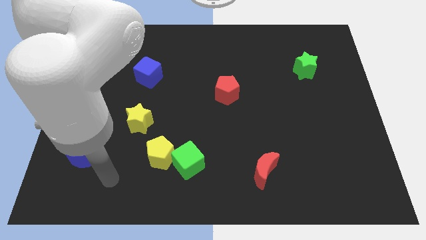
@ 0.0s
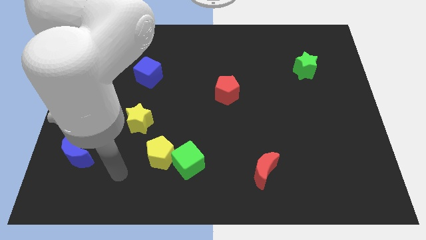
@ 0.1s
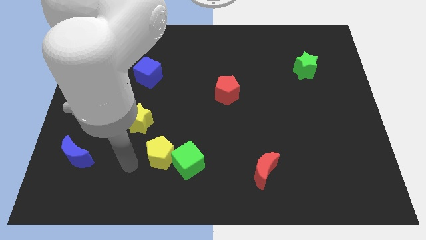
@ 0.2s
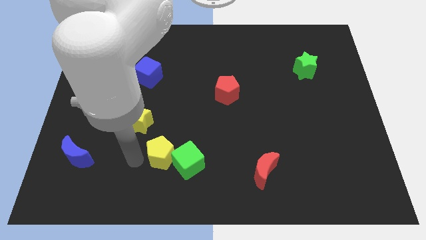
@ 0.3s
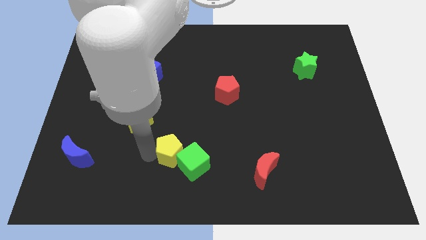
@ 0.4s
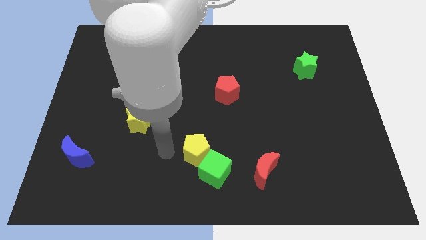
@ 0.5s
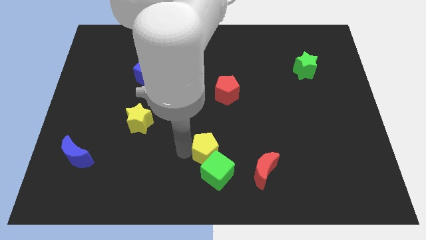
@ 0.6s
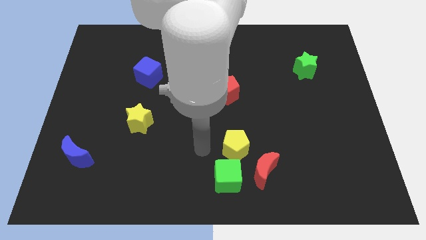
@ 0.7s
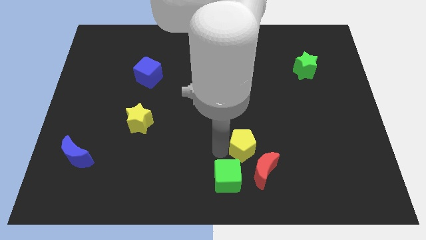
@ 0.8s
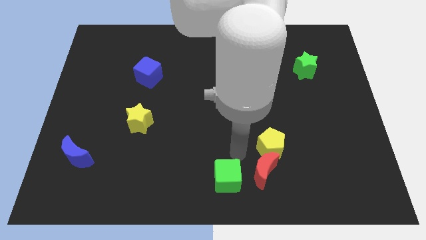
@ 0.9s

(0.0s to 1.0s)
pull the green cube apart from the yellow pentagon

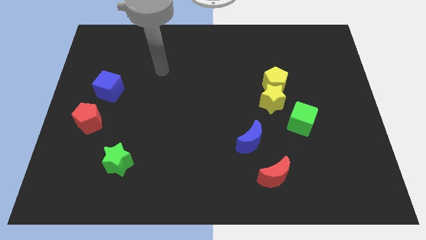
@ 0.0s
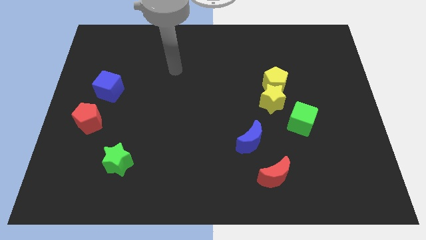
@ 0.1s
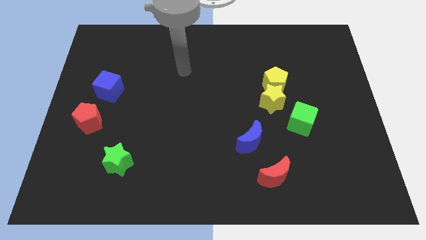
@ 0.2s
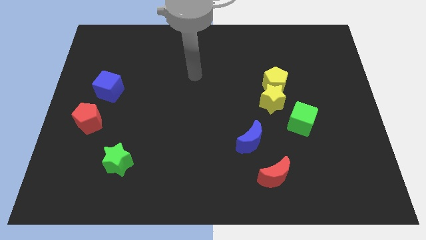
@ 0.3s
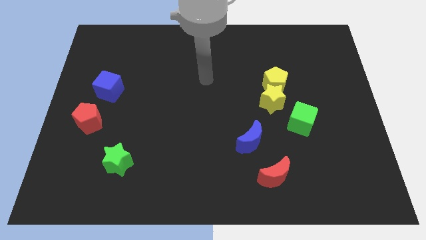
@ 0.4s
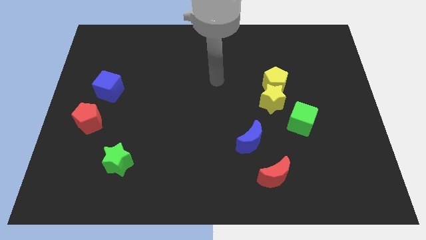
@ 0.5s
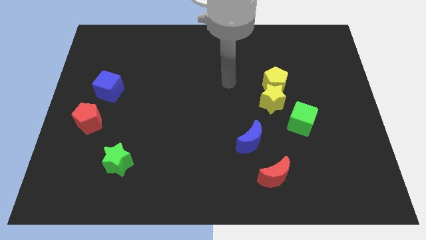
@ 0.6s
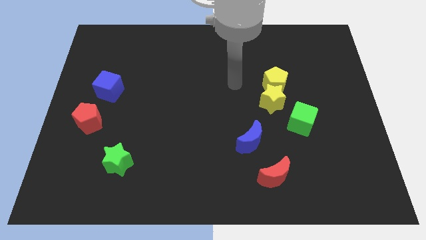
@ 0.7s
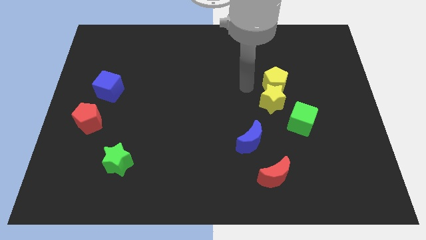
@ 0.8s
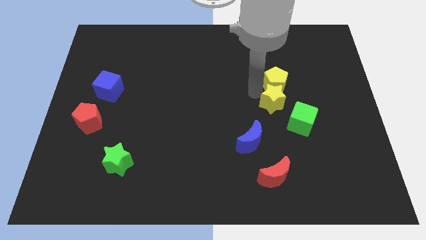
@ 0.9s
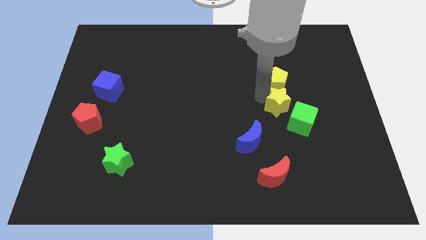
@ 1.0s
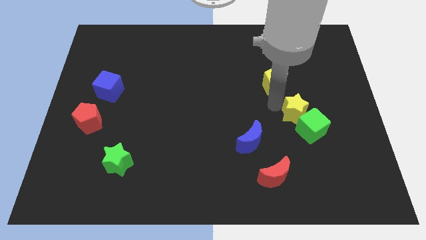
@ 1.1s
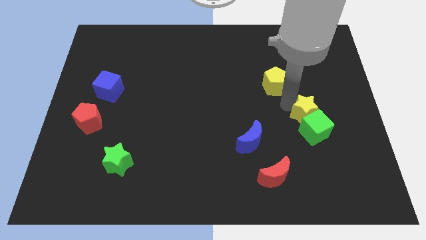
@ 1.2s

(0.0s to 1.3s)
move the yellow pentagon away from the yellow star

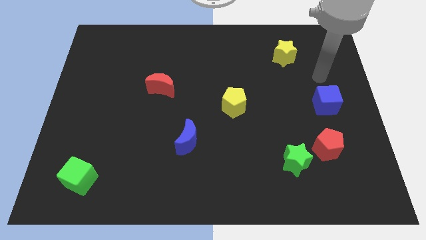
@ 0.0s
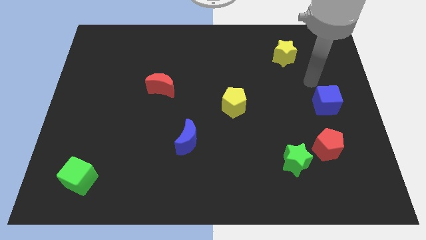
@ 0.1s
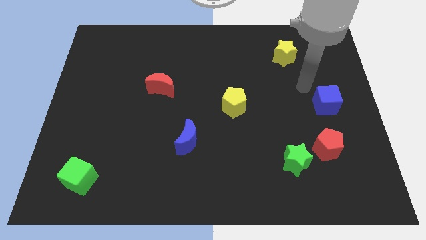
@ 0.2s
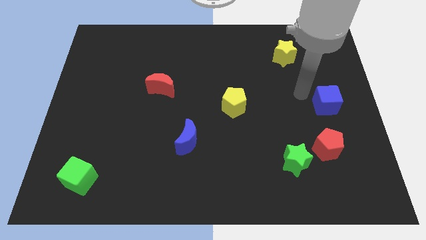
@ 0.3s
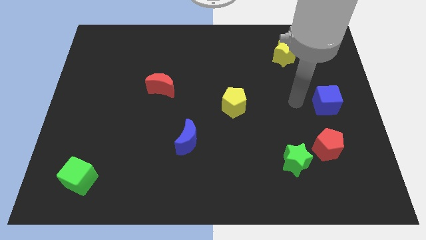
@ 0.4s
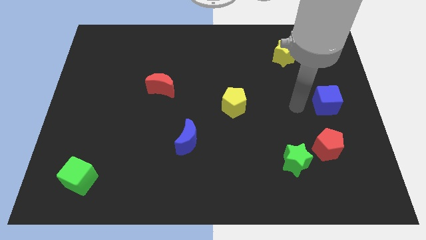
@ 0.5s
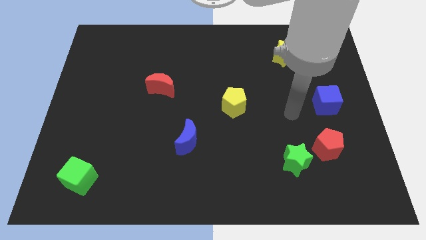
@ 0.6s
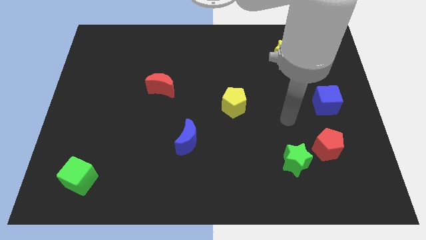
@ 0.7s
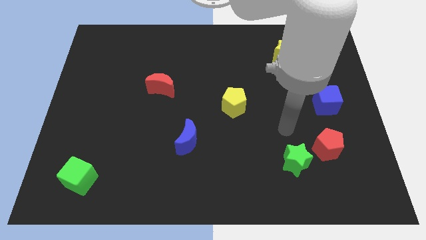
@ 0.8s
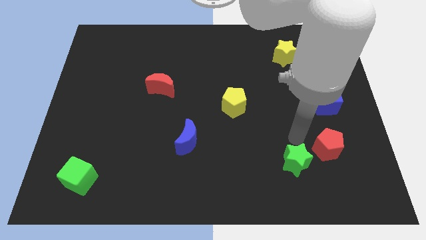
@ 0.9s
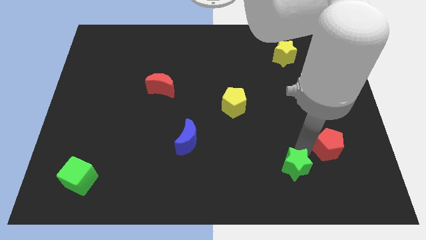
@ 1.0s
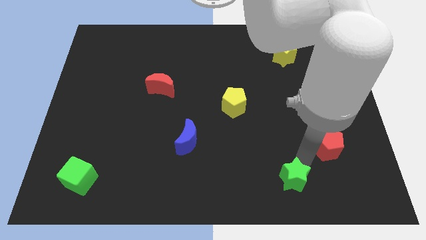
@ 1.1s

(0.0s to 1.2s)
move the red pentagon away from the green star

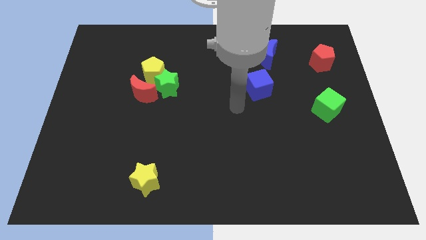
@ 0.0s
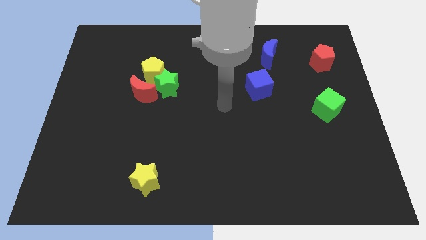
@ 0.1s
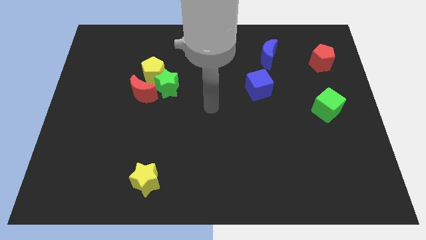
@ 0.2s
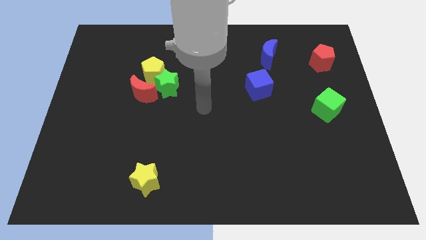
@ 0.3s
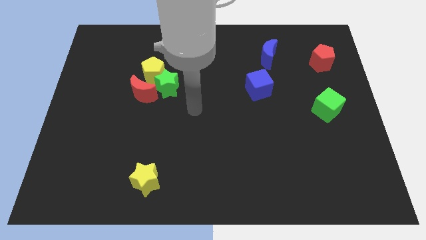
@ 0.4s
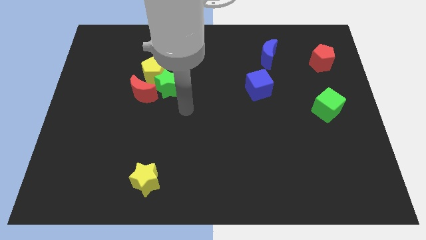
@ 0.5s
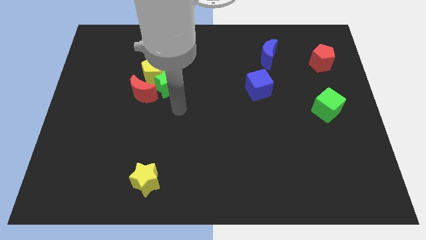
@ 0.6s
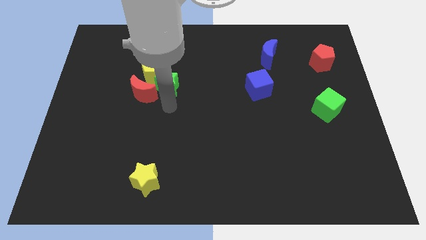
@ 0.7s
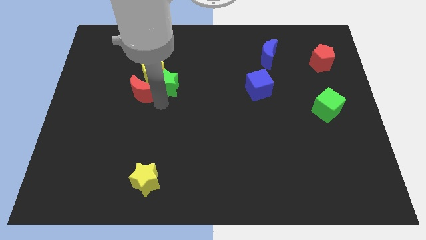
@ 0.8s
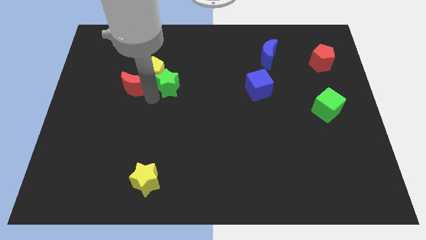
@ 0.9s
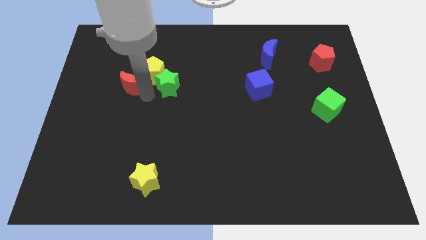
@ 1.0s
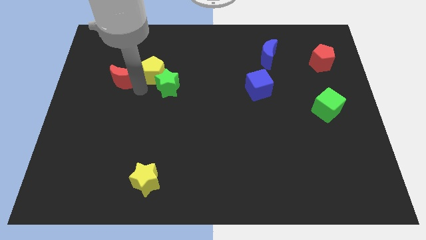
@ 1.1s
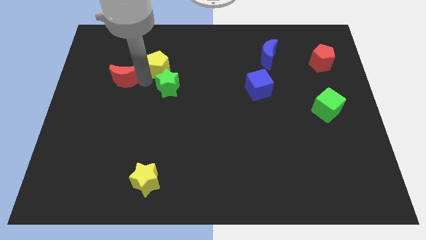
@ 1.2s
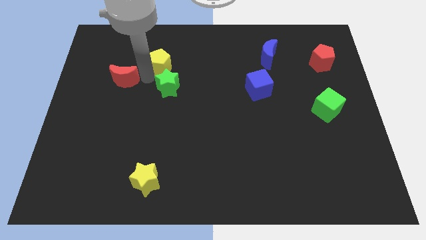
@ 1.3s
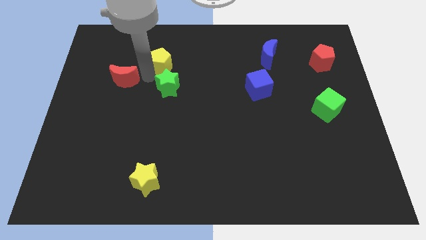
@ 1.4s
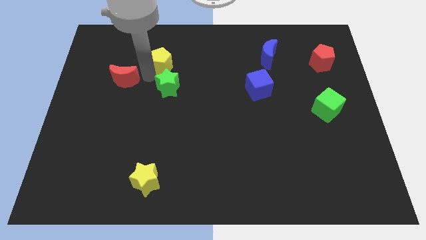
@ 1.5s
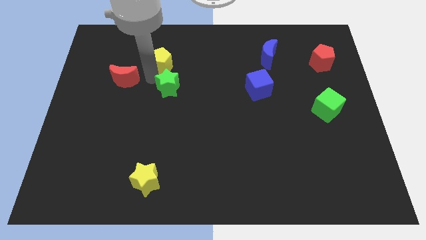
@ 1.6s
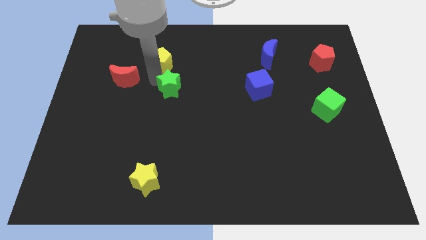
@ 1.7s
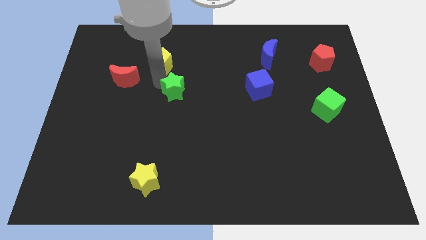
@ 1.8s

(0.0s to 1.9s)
move the green star away from the yellow pentagon and red moon

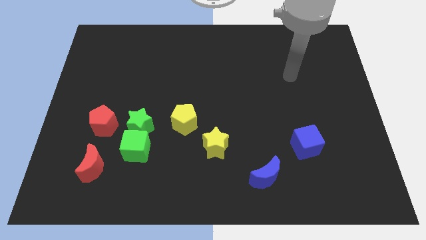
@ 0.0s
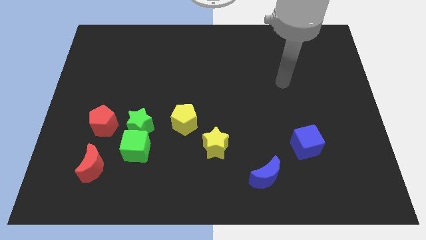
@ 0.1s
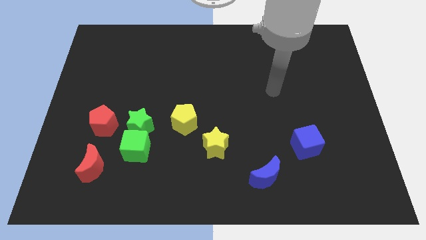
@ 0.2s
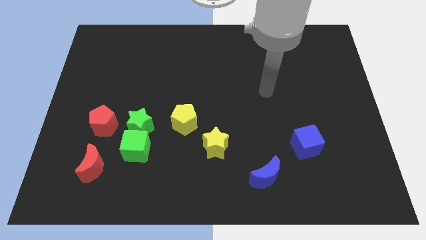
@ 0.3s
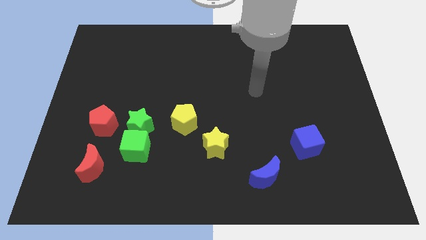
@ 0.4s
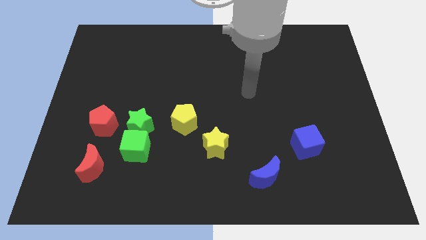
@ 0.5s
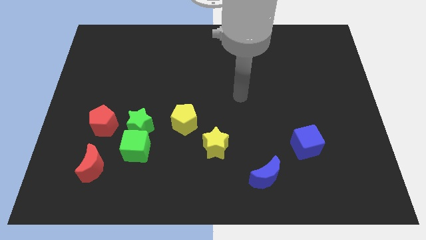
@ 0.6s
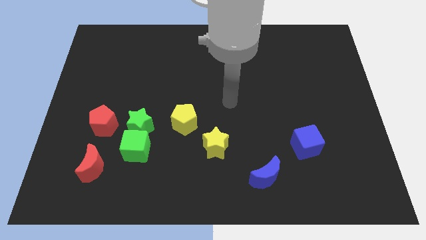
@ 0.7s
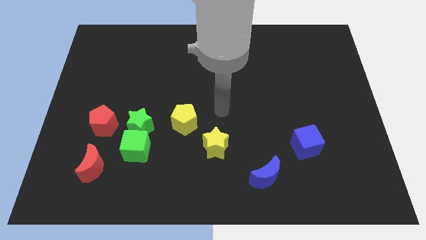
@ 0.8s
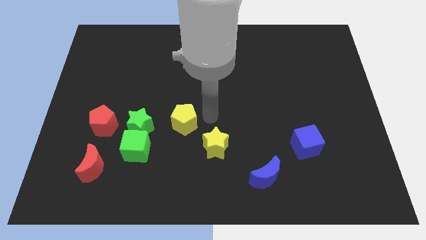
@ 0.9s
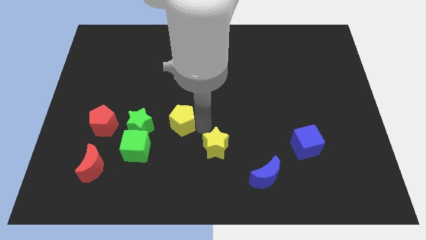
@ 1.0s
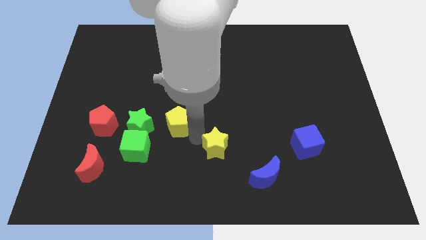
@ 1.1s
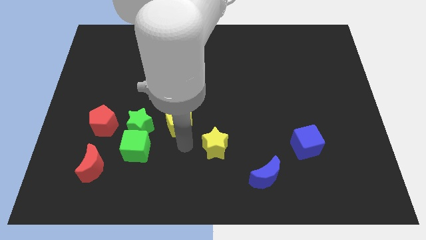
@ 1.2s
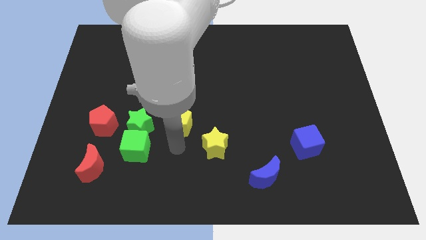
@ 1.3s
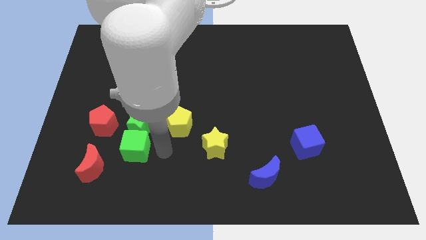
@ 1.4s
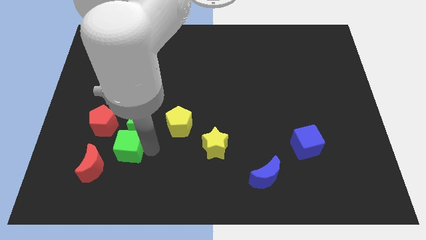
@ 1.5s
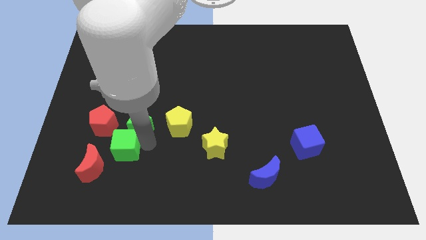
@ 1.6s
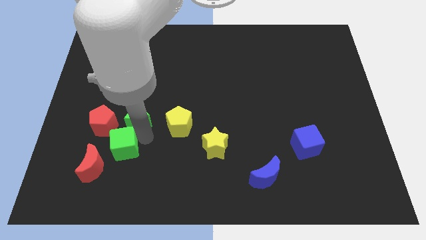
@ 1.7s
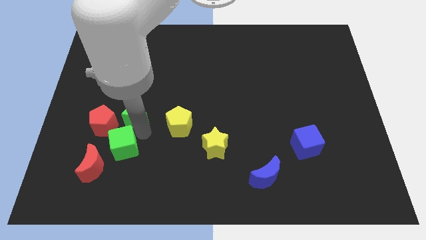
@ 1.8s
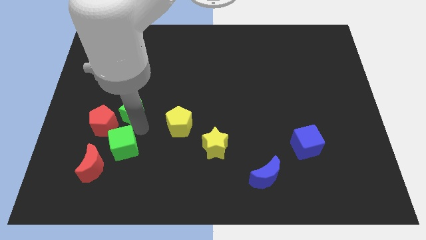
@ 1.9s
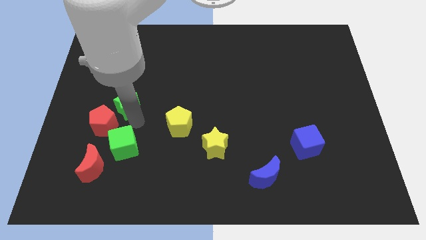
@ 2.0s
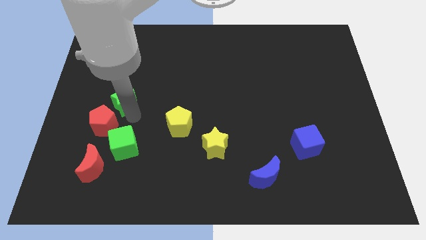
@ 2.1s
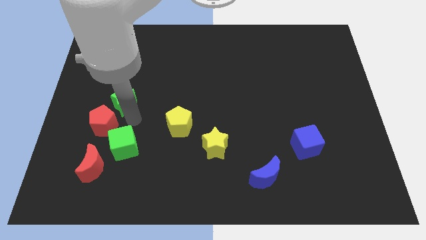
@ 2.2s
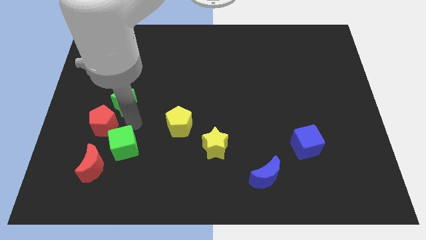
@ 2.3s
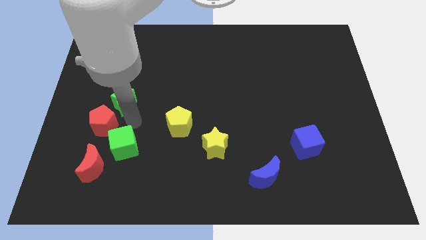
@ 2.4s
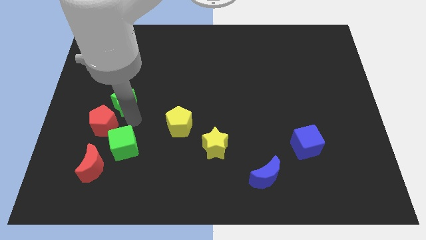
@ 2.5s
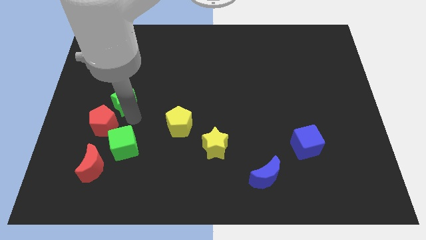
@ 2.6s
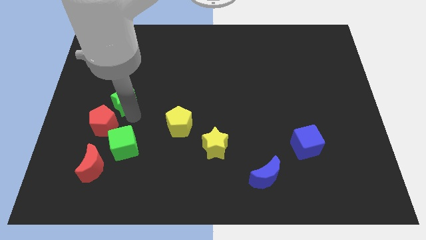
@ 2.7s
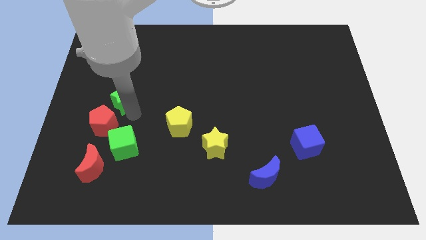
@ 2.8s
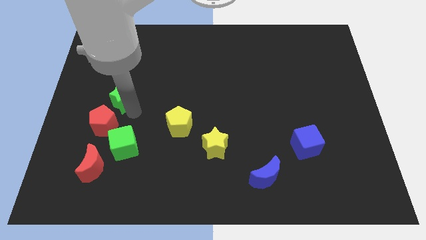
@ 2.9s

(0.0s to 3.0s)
move the green star away from the clump

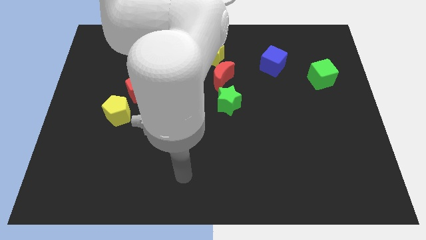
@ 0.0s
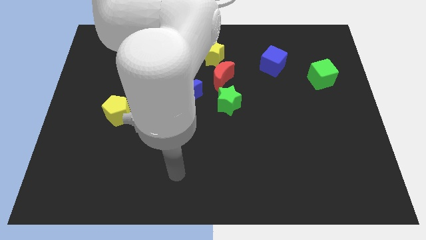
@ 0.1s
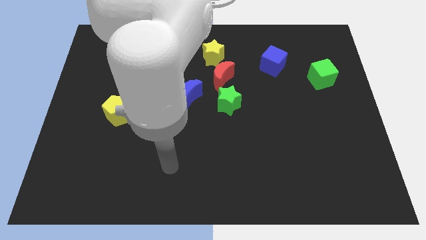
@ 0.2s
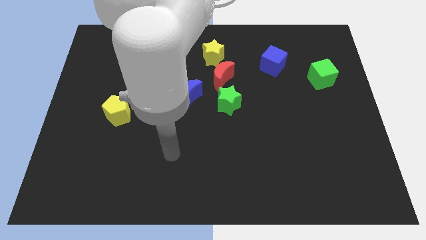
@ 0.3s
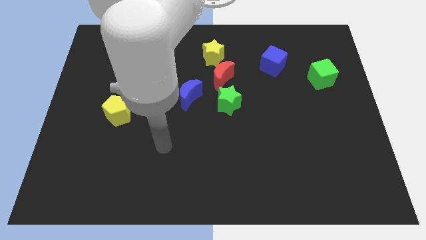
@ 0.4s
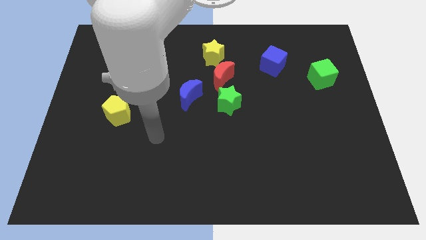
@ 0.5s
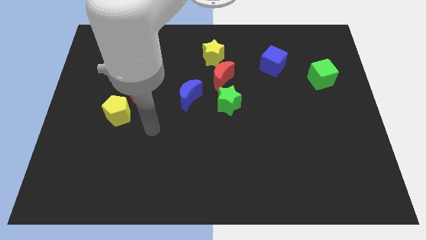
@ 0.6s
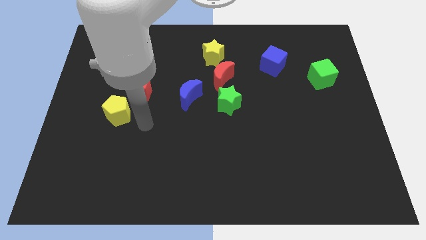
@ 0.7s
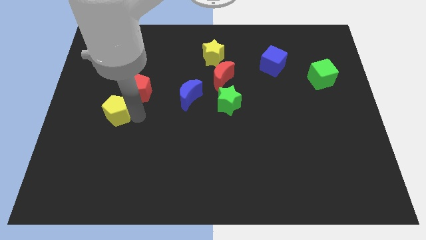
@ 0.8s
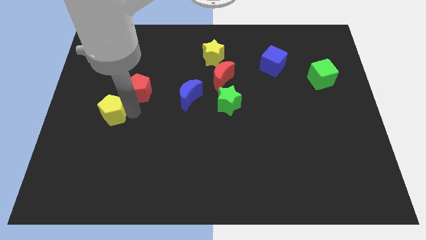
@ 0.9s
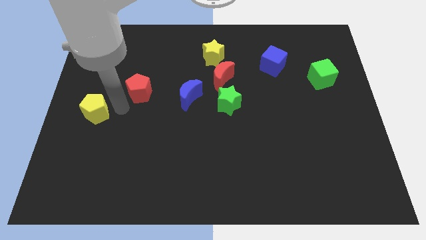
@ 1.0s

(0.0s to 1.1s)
pull the red pentagon apart from the yellow pentagon
